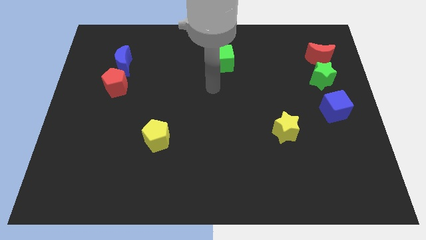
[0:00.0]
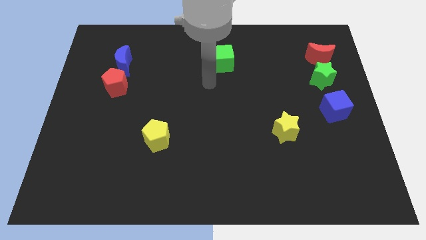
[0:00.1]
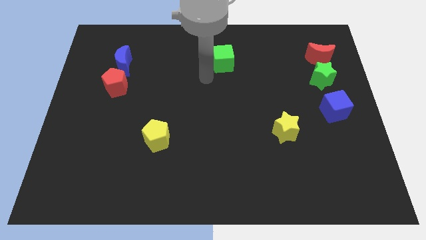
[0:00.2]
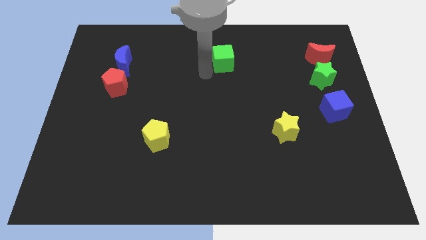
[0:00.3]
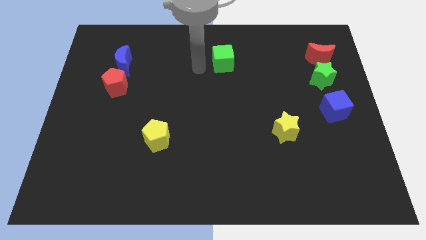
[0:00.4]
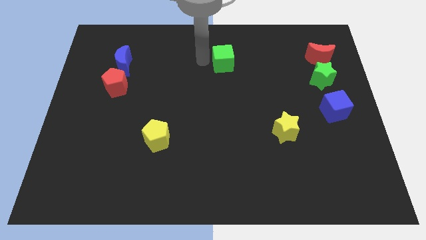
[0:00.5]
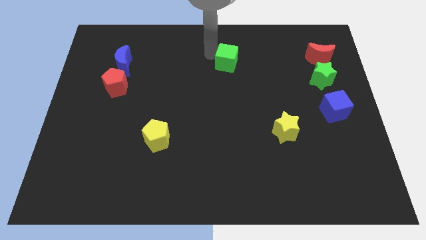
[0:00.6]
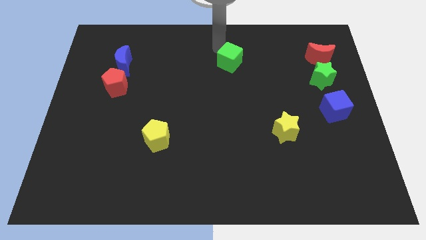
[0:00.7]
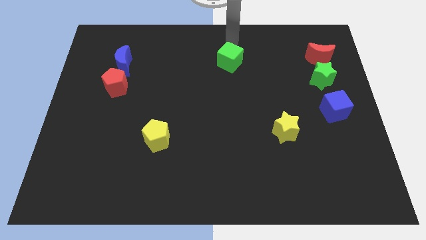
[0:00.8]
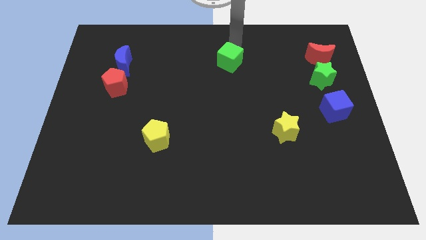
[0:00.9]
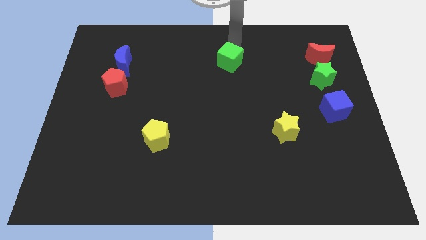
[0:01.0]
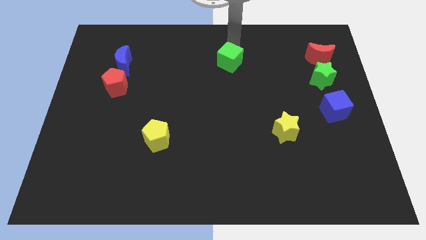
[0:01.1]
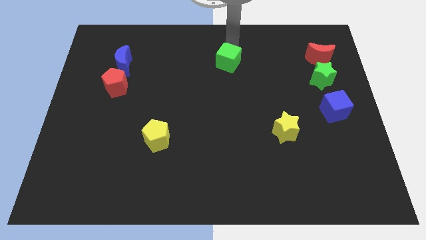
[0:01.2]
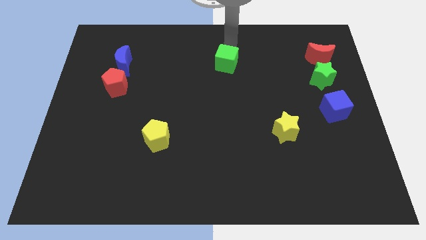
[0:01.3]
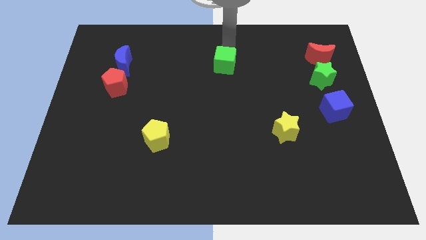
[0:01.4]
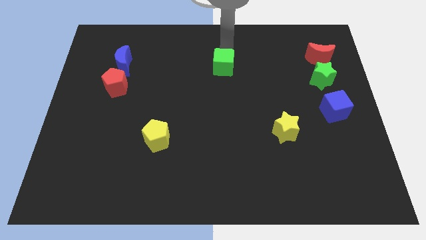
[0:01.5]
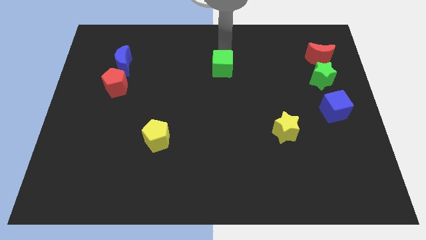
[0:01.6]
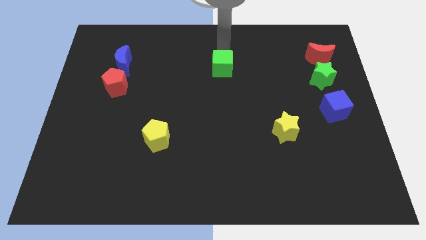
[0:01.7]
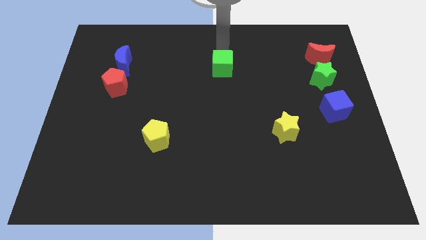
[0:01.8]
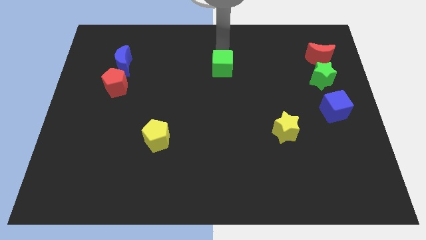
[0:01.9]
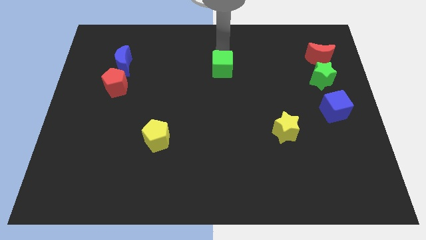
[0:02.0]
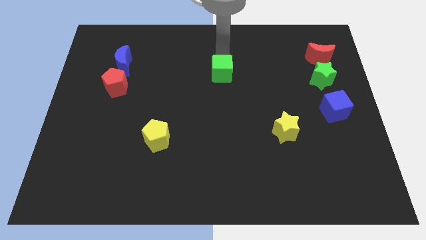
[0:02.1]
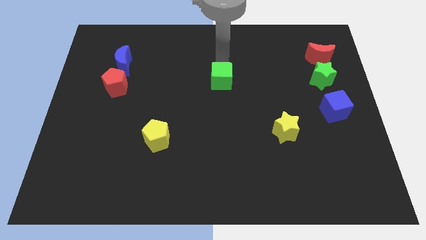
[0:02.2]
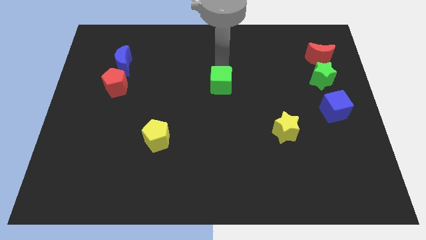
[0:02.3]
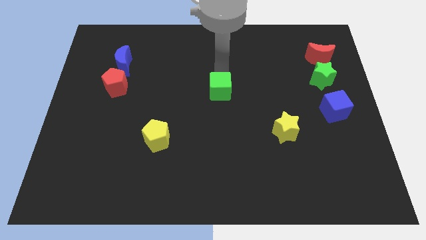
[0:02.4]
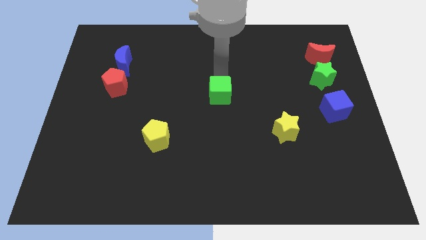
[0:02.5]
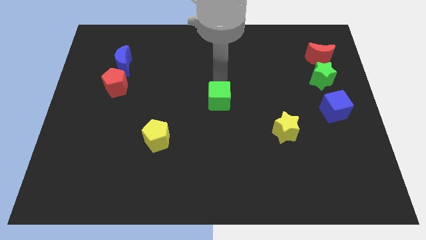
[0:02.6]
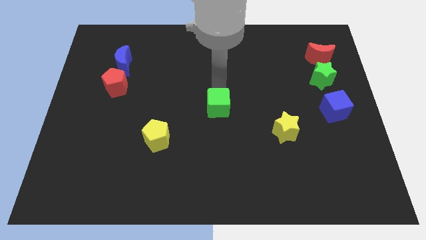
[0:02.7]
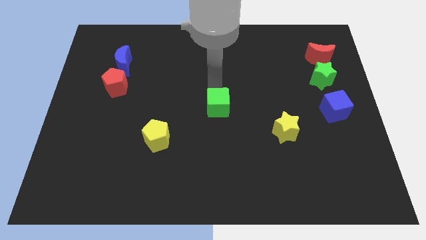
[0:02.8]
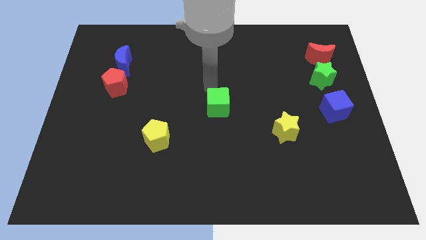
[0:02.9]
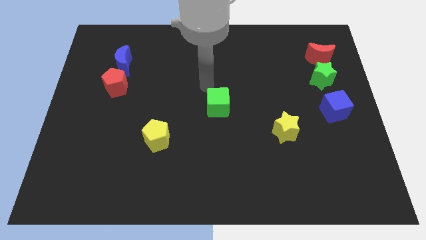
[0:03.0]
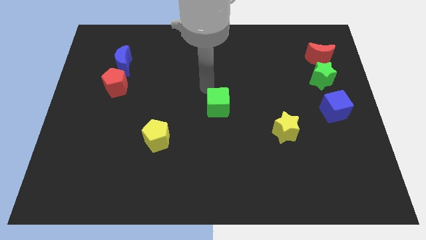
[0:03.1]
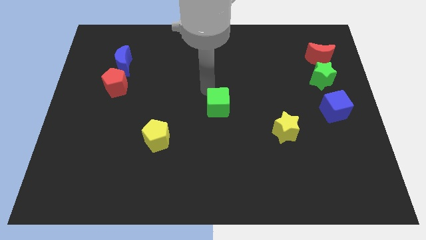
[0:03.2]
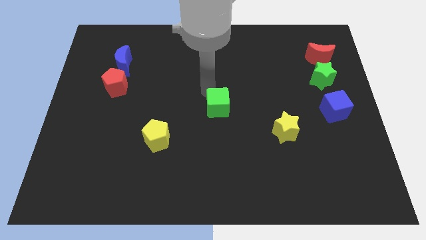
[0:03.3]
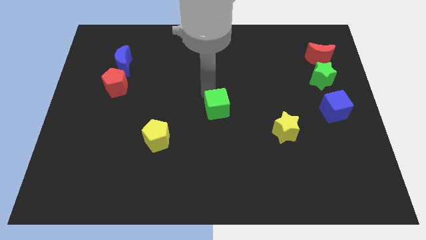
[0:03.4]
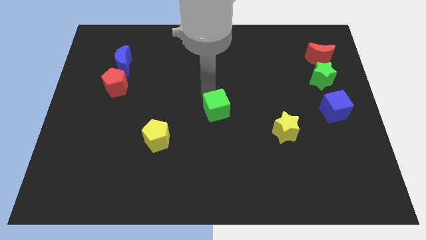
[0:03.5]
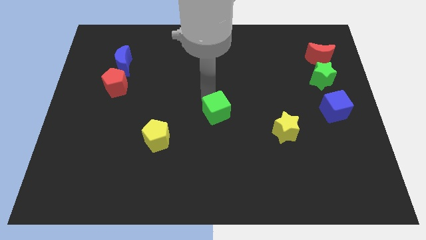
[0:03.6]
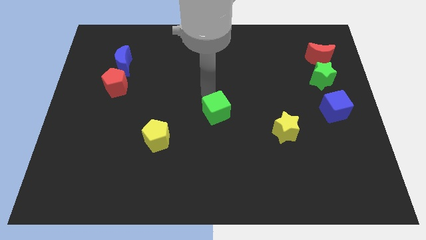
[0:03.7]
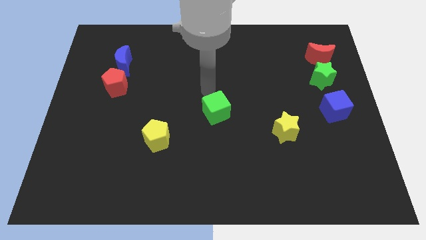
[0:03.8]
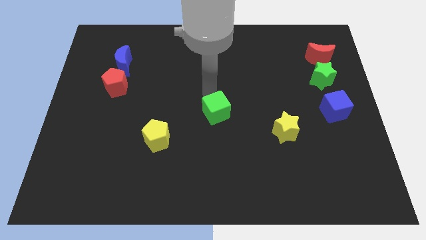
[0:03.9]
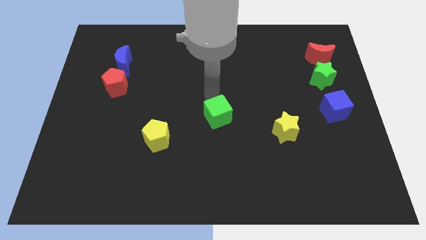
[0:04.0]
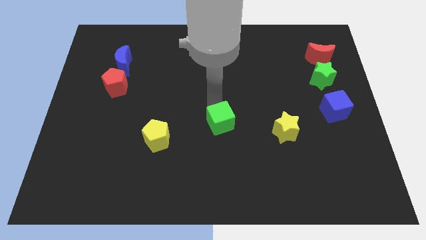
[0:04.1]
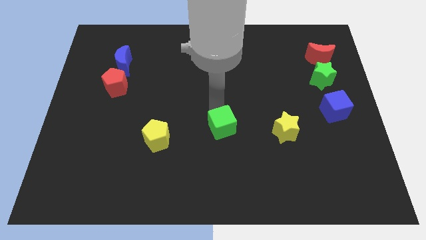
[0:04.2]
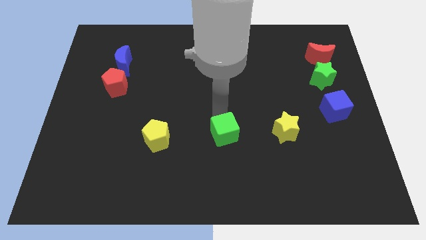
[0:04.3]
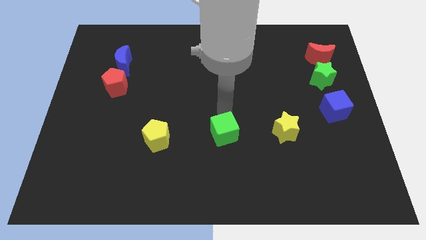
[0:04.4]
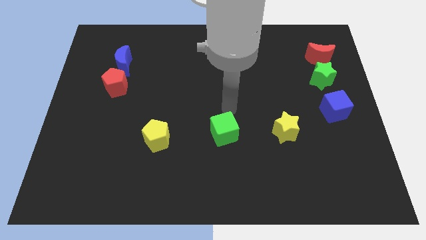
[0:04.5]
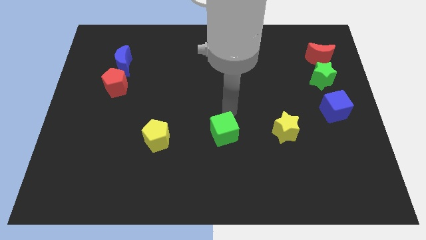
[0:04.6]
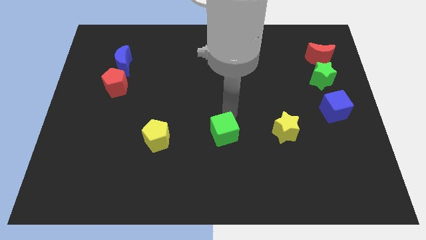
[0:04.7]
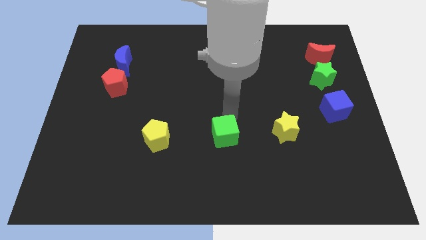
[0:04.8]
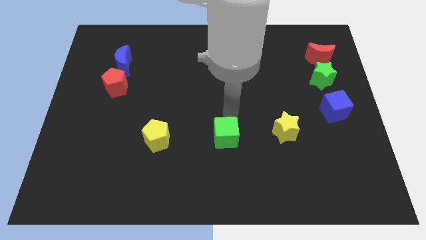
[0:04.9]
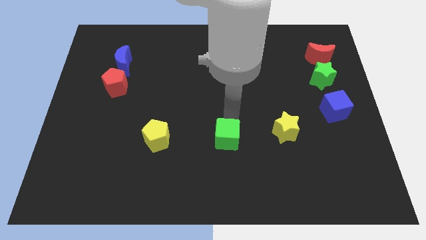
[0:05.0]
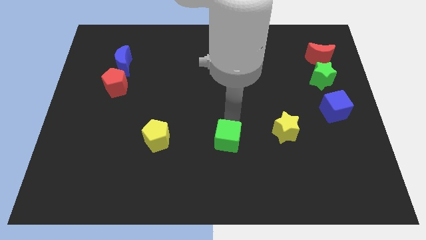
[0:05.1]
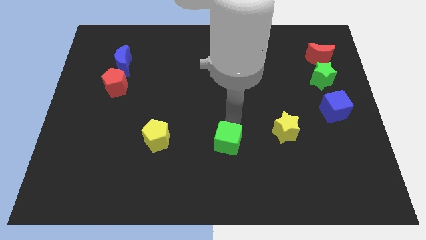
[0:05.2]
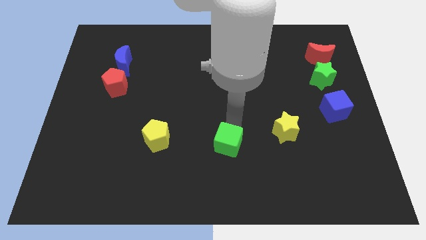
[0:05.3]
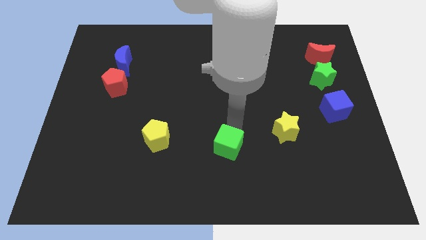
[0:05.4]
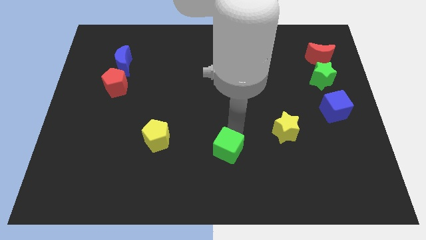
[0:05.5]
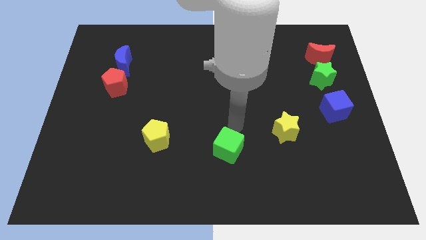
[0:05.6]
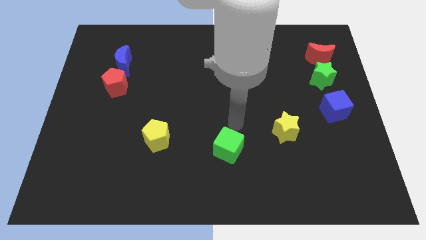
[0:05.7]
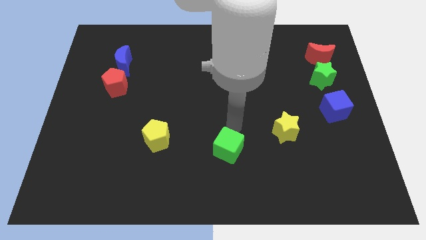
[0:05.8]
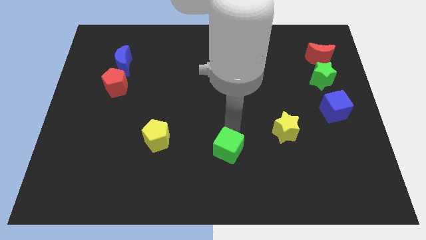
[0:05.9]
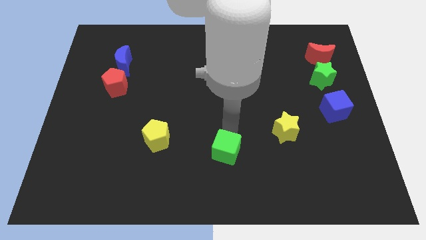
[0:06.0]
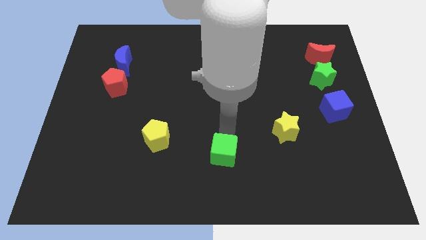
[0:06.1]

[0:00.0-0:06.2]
push the green cube to the bottom side
